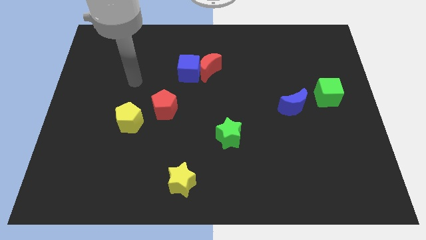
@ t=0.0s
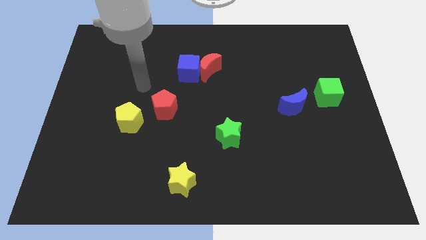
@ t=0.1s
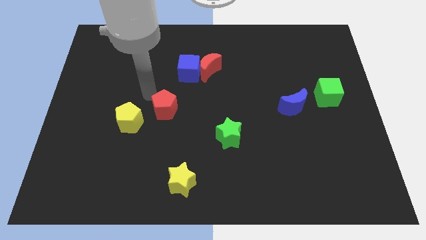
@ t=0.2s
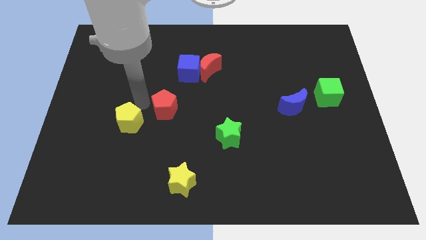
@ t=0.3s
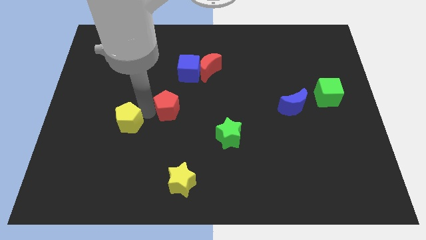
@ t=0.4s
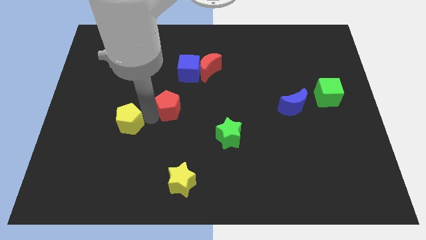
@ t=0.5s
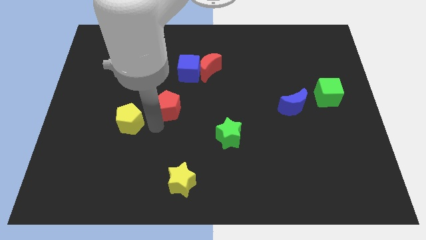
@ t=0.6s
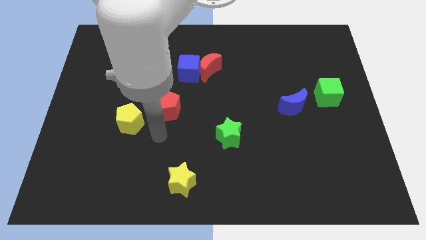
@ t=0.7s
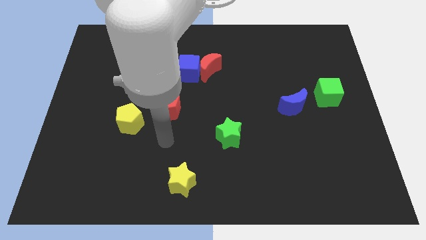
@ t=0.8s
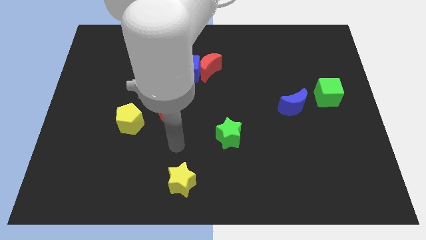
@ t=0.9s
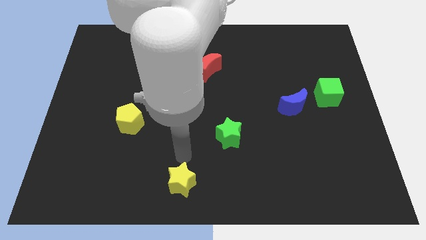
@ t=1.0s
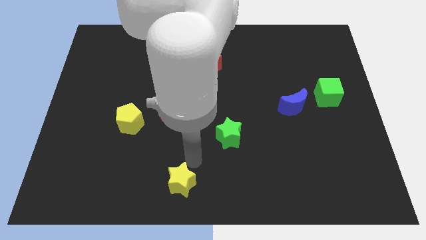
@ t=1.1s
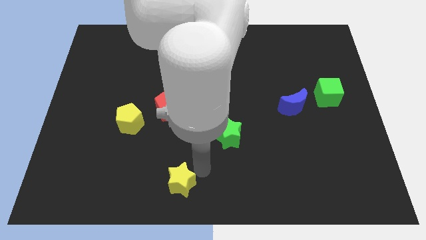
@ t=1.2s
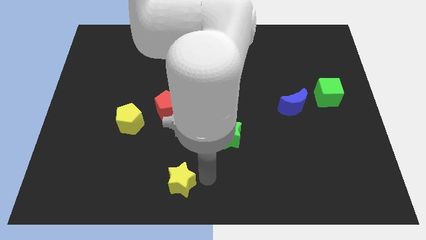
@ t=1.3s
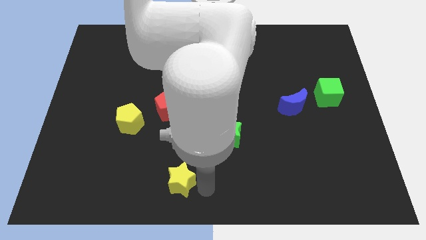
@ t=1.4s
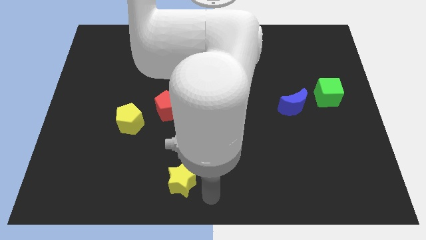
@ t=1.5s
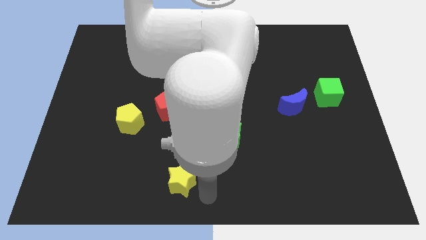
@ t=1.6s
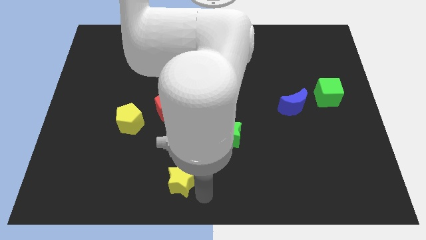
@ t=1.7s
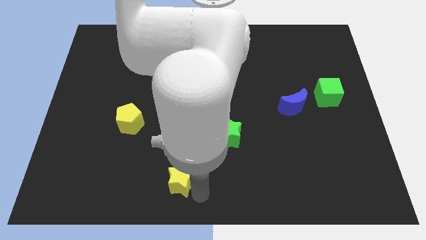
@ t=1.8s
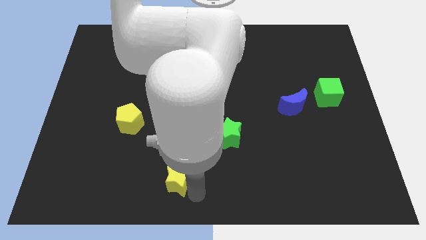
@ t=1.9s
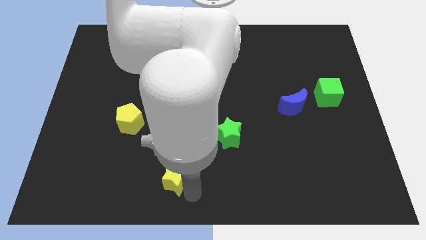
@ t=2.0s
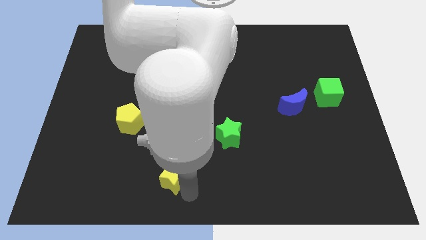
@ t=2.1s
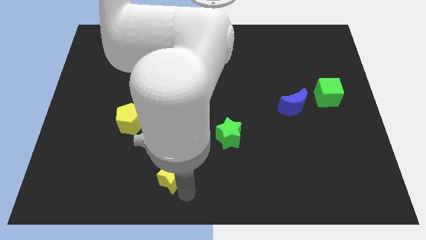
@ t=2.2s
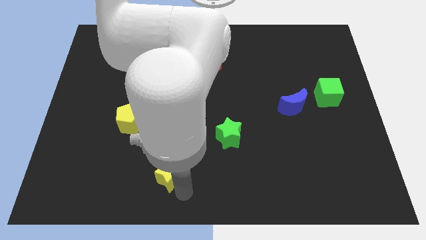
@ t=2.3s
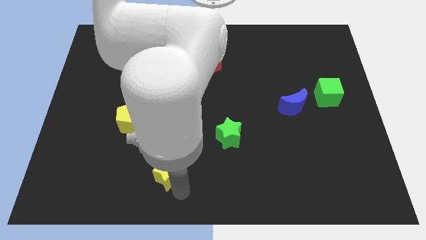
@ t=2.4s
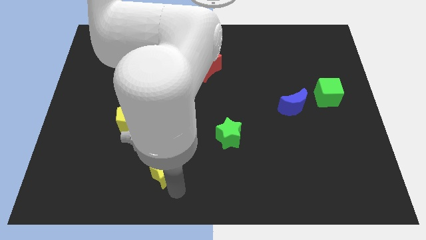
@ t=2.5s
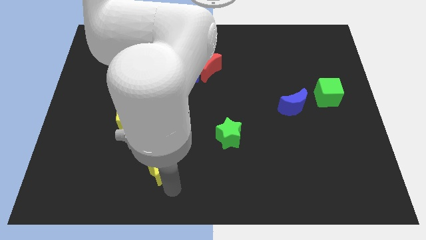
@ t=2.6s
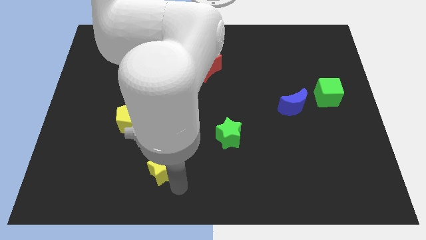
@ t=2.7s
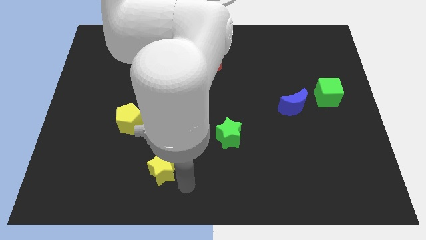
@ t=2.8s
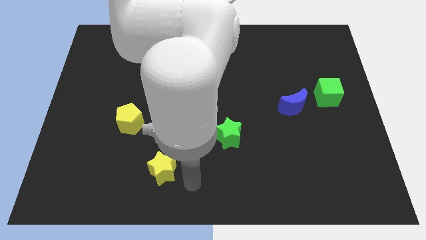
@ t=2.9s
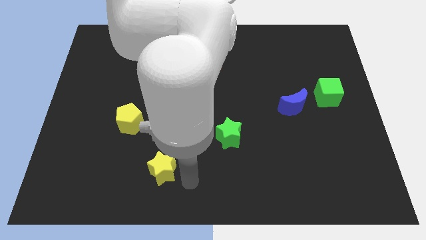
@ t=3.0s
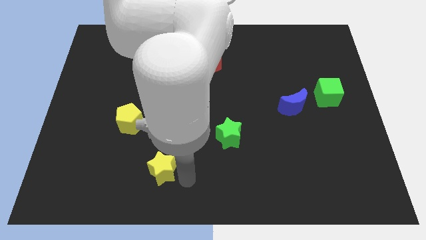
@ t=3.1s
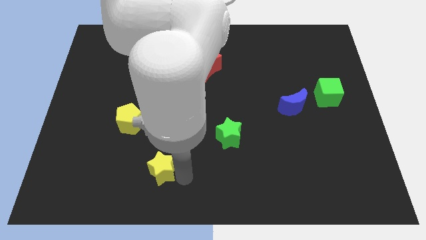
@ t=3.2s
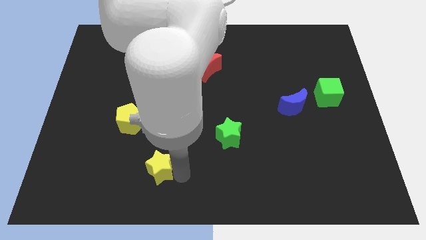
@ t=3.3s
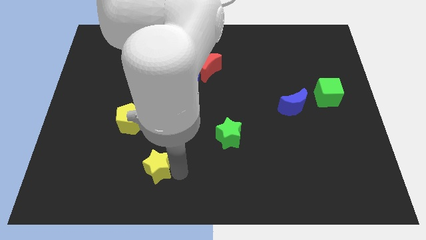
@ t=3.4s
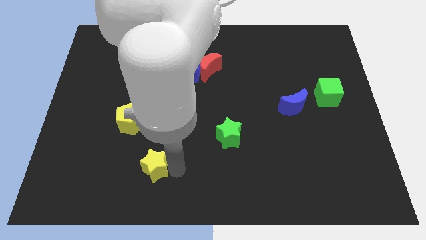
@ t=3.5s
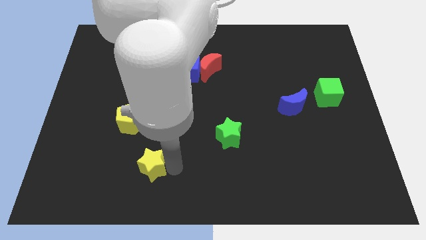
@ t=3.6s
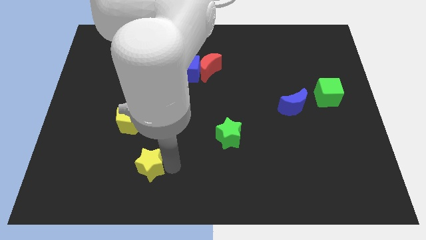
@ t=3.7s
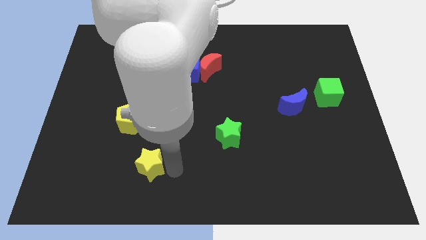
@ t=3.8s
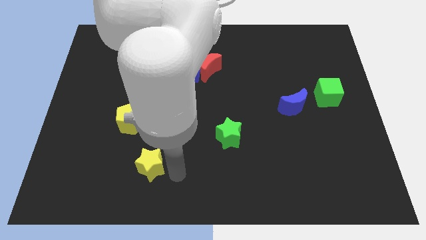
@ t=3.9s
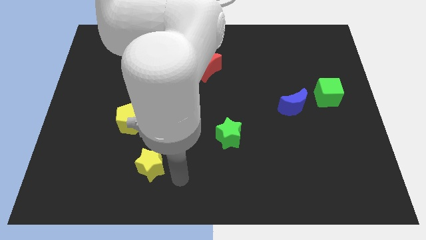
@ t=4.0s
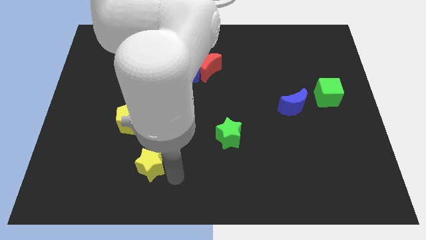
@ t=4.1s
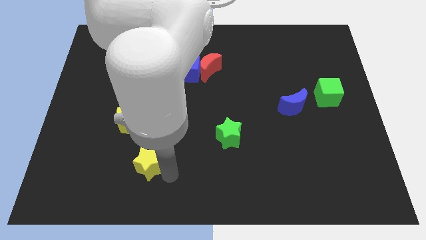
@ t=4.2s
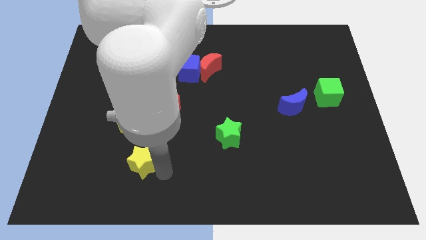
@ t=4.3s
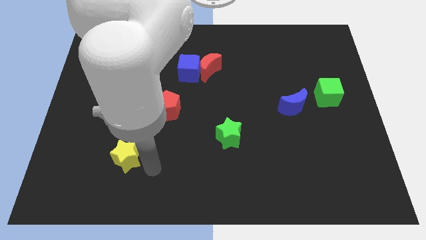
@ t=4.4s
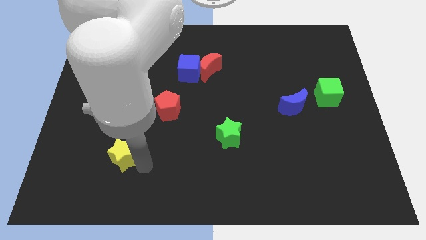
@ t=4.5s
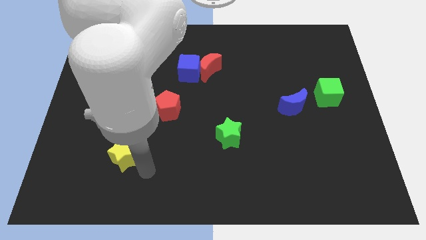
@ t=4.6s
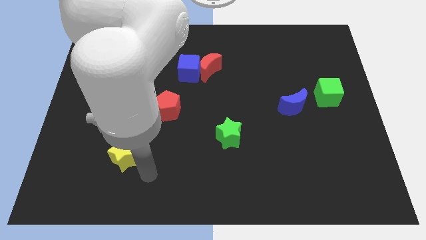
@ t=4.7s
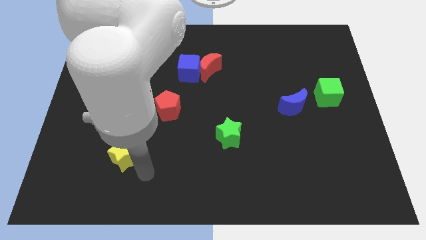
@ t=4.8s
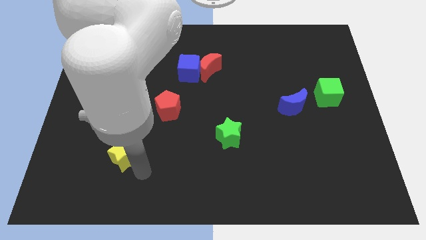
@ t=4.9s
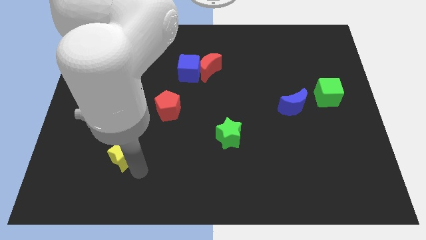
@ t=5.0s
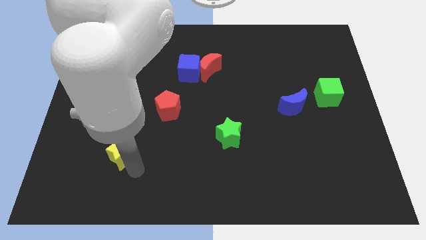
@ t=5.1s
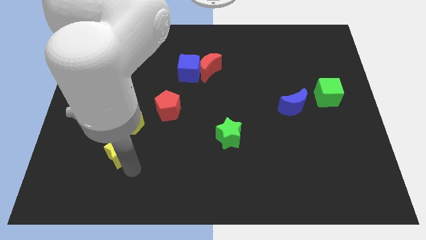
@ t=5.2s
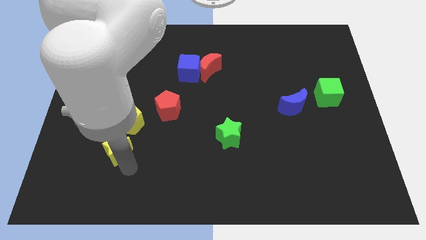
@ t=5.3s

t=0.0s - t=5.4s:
slide the yellow star to the bottom left side of the yellow pentagon
